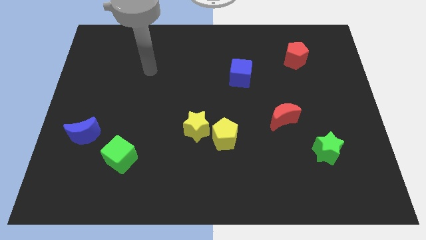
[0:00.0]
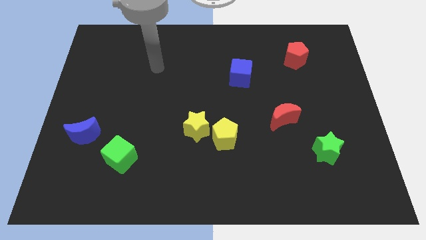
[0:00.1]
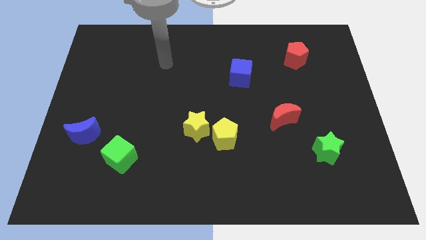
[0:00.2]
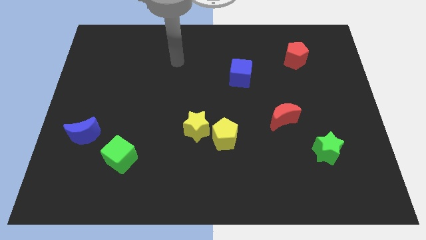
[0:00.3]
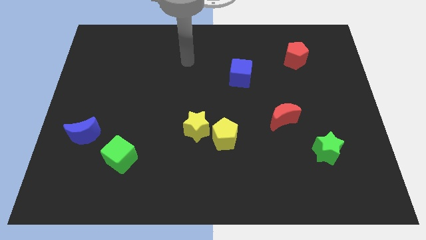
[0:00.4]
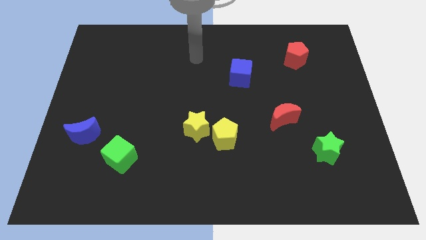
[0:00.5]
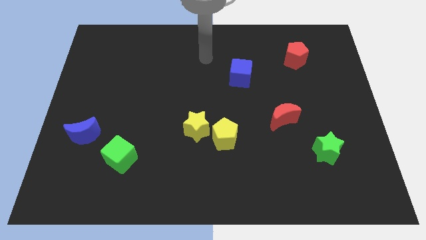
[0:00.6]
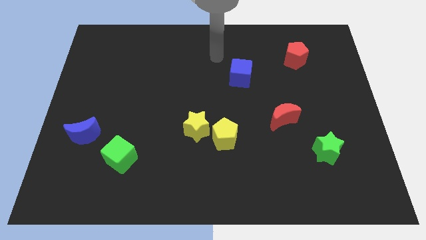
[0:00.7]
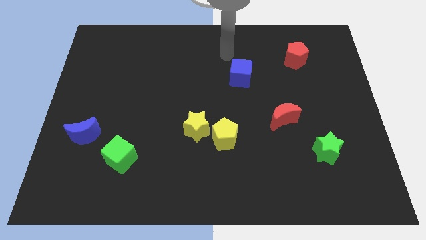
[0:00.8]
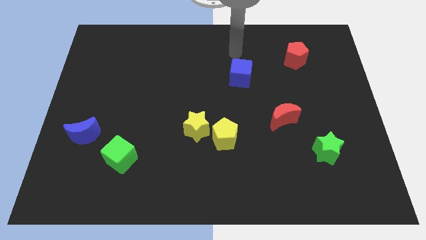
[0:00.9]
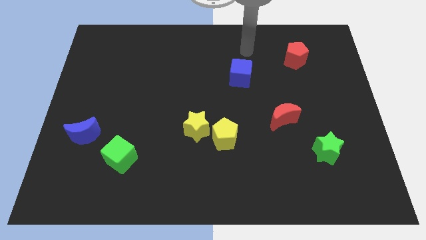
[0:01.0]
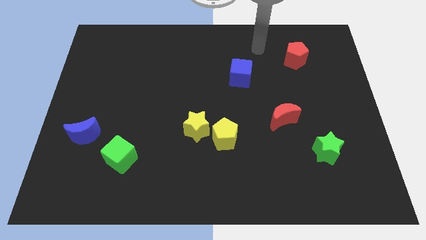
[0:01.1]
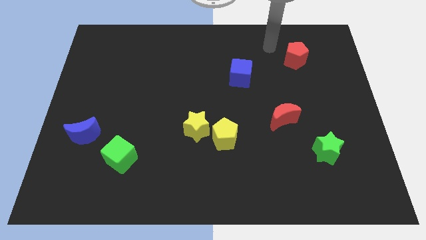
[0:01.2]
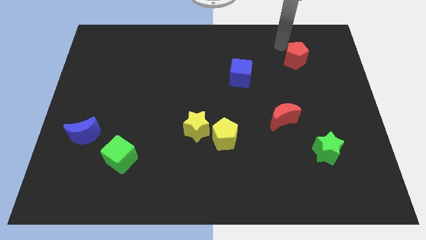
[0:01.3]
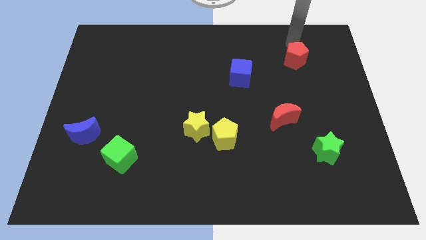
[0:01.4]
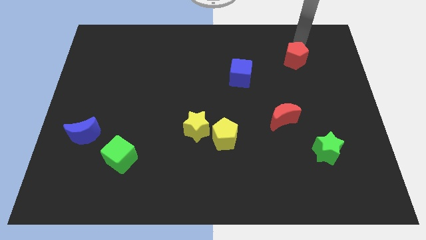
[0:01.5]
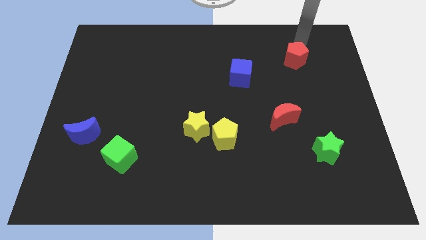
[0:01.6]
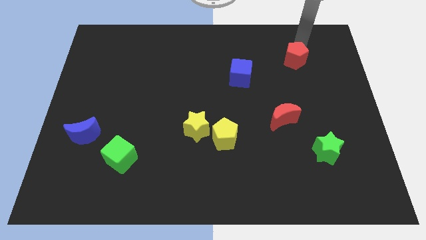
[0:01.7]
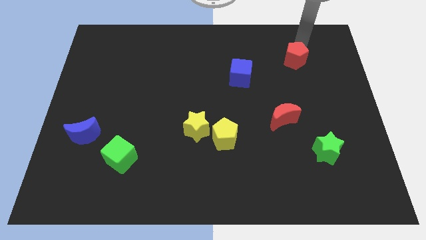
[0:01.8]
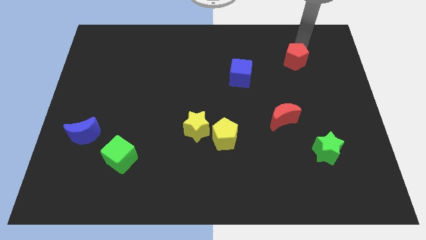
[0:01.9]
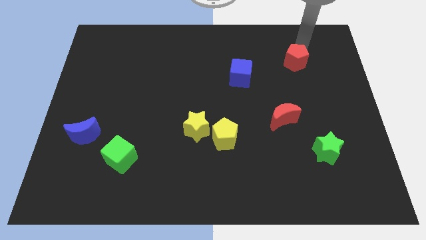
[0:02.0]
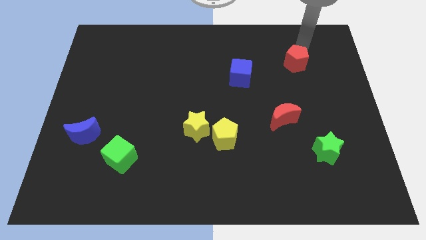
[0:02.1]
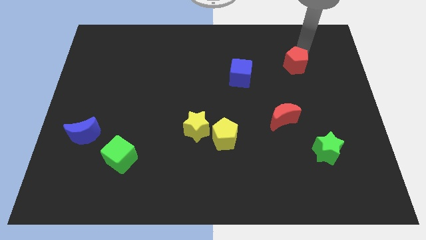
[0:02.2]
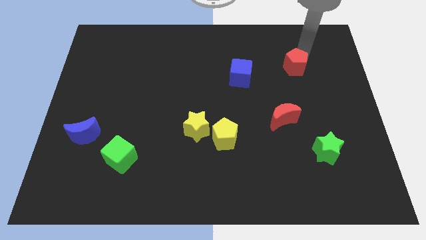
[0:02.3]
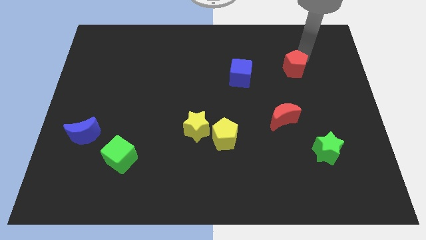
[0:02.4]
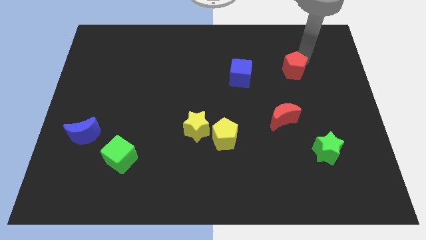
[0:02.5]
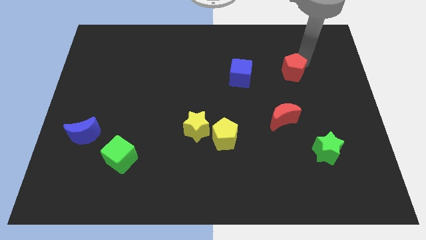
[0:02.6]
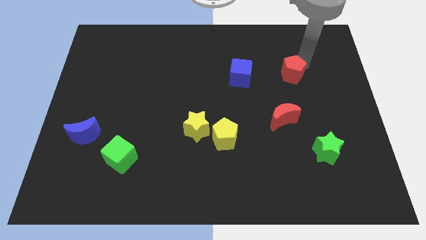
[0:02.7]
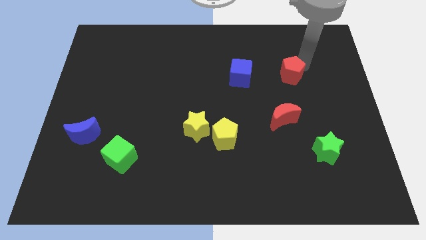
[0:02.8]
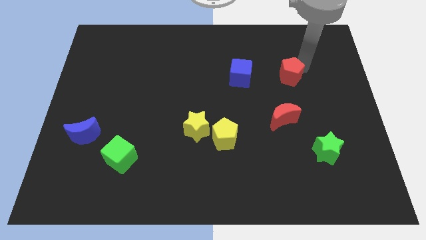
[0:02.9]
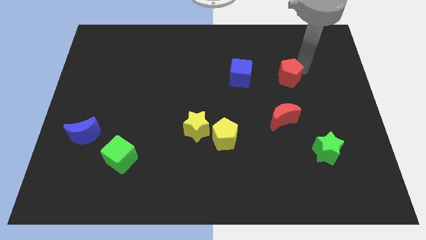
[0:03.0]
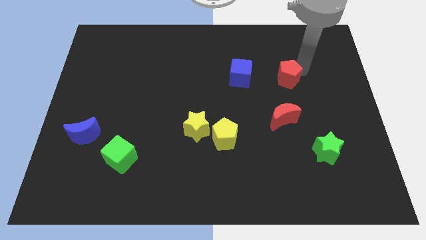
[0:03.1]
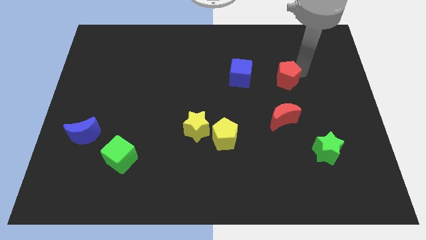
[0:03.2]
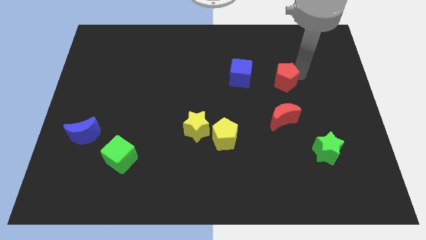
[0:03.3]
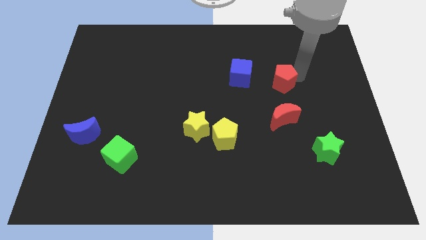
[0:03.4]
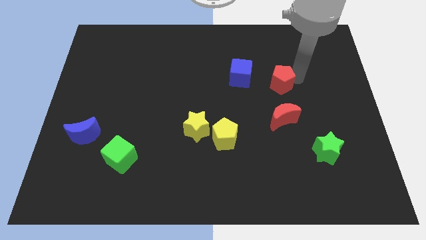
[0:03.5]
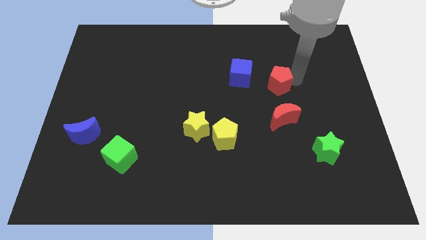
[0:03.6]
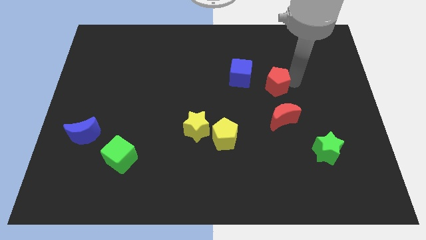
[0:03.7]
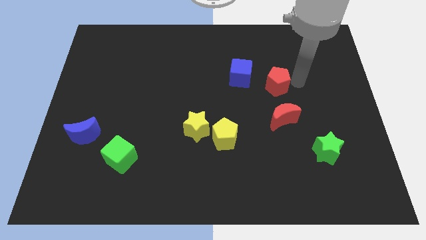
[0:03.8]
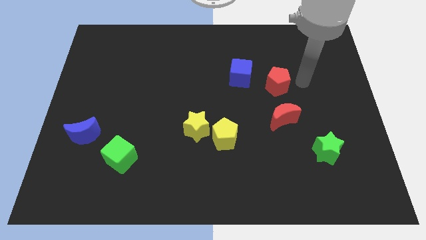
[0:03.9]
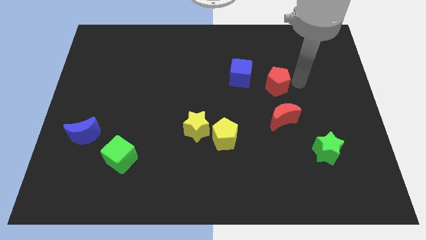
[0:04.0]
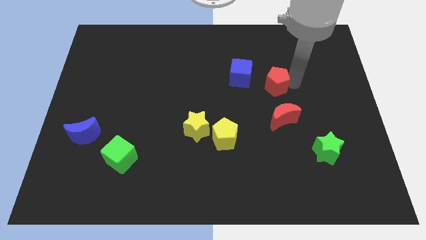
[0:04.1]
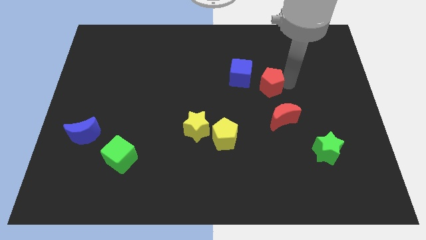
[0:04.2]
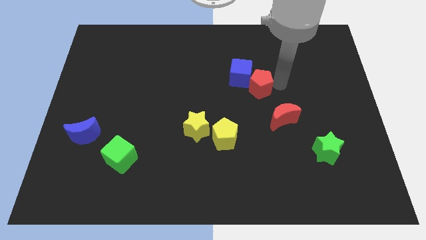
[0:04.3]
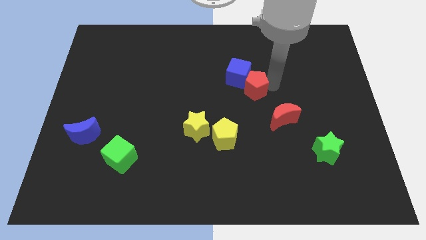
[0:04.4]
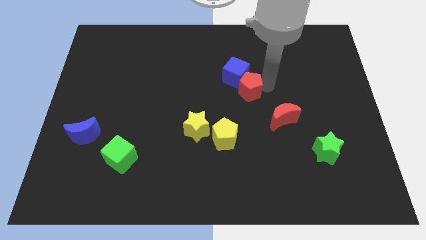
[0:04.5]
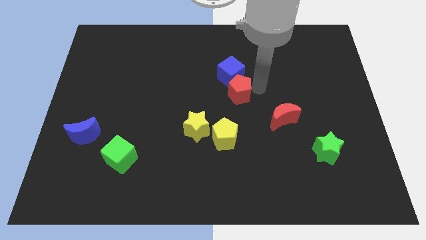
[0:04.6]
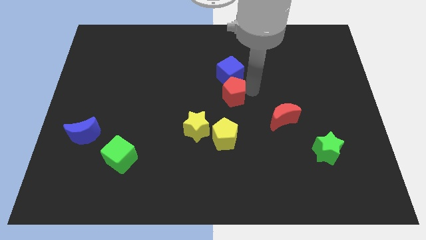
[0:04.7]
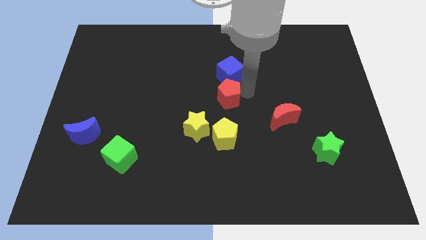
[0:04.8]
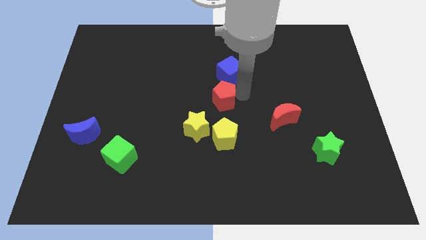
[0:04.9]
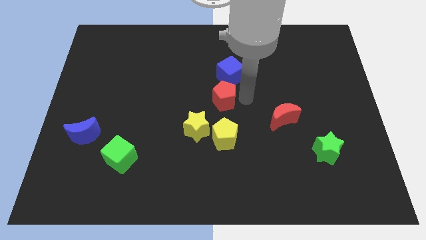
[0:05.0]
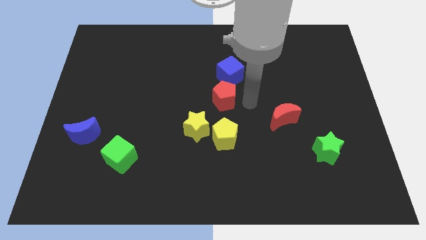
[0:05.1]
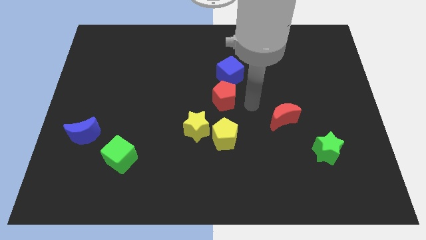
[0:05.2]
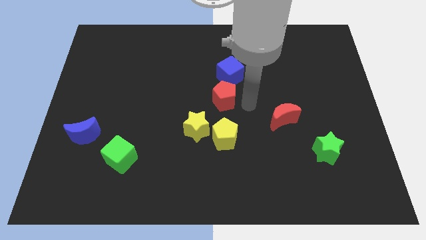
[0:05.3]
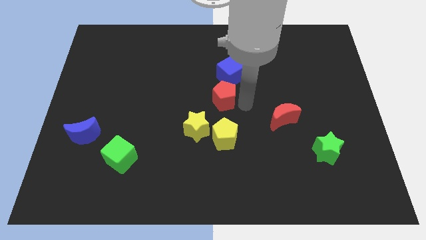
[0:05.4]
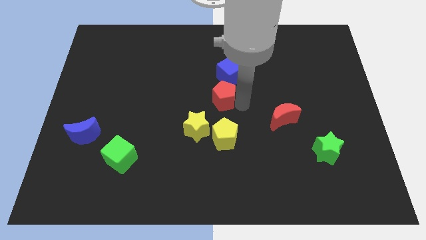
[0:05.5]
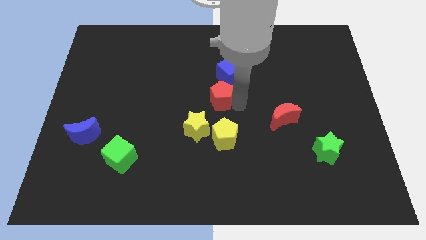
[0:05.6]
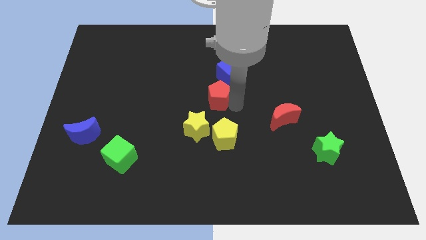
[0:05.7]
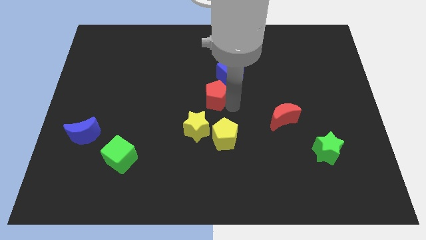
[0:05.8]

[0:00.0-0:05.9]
put the red pentagon above the yellow star

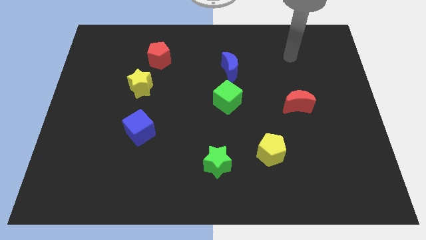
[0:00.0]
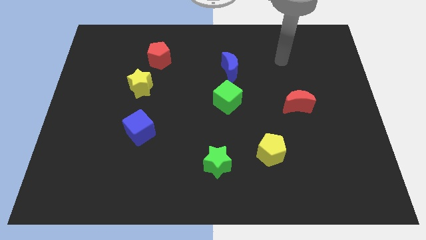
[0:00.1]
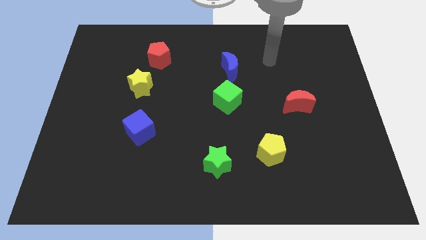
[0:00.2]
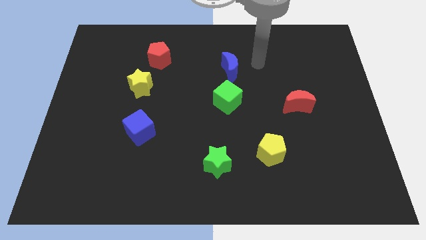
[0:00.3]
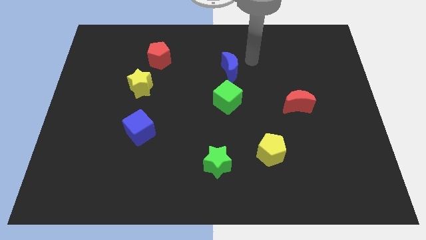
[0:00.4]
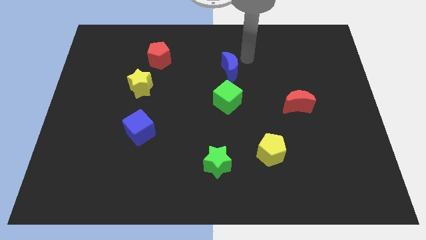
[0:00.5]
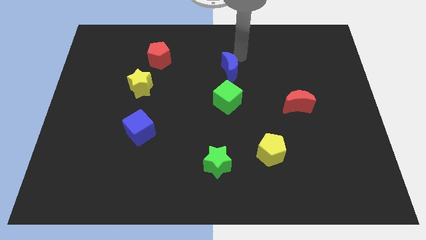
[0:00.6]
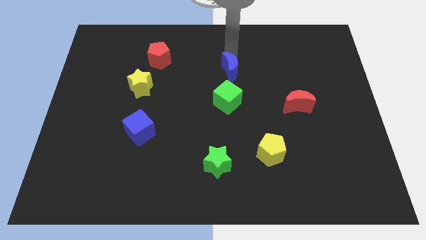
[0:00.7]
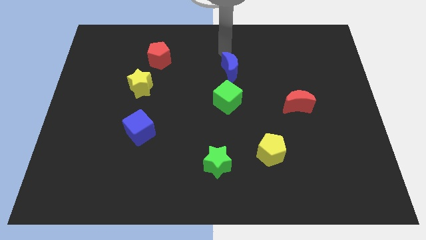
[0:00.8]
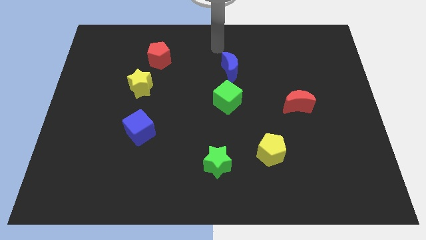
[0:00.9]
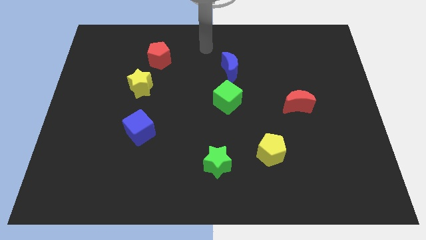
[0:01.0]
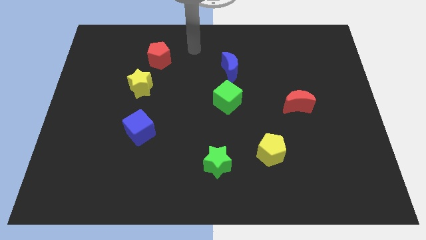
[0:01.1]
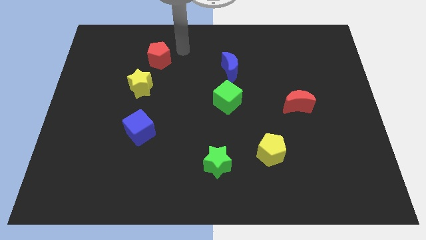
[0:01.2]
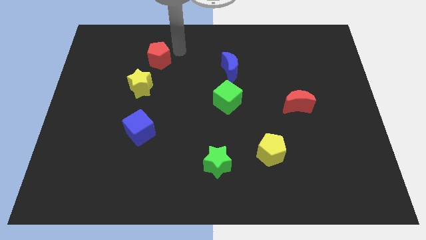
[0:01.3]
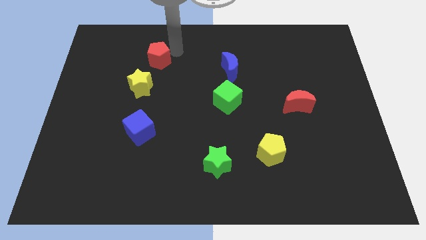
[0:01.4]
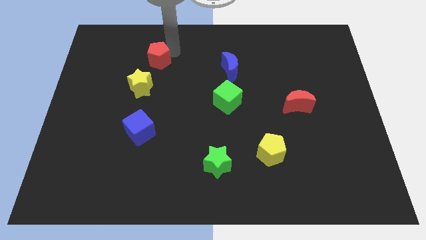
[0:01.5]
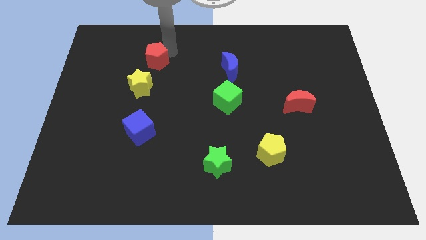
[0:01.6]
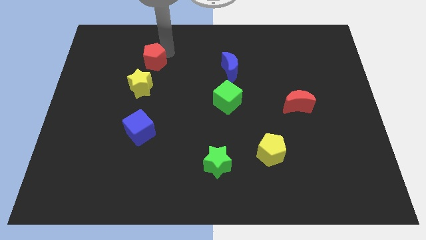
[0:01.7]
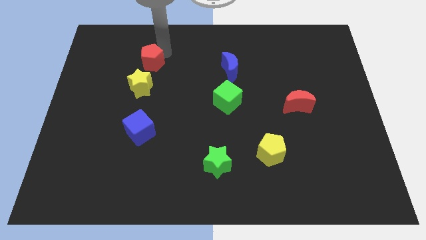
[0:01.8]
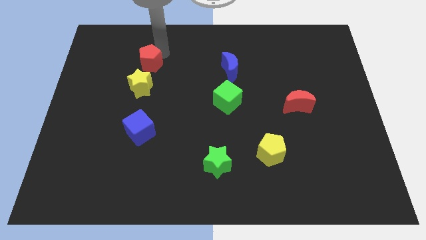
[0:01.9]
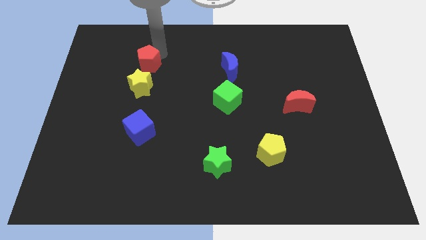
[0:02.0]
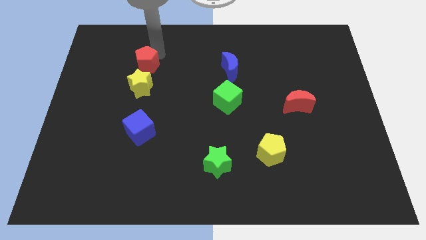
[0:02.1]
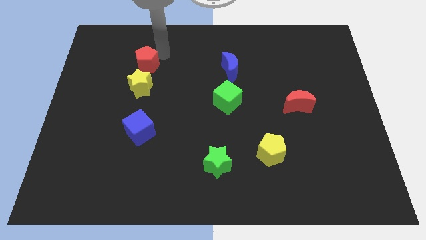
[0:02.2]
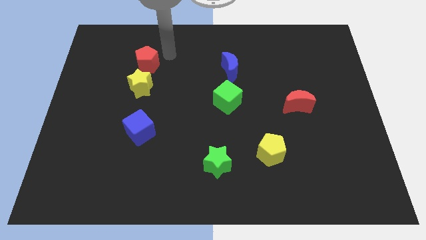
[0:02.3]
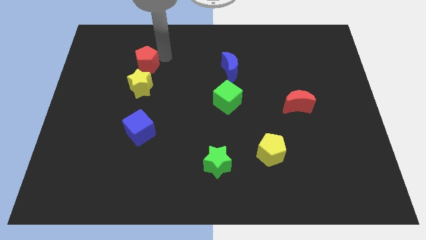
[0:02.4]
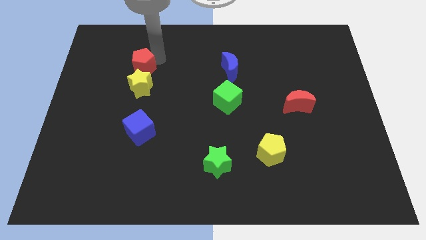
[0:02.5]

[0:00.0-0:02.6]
put the red pentagon to the top left side of the yellow star
